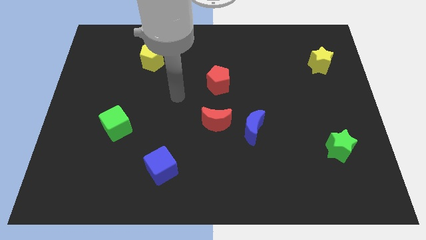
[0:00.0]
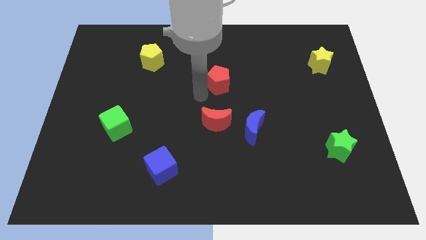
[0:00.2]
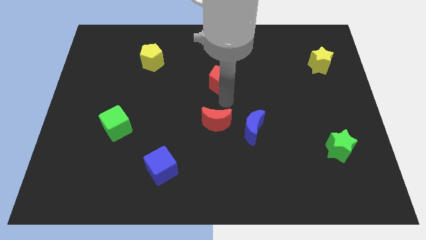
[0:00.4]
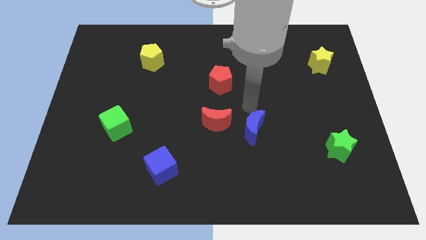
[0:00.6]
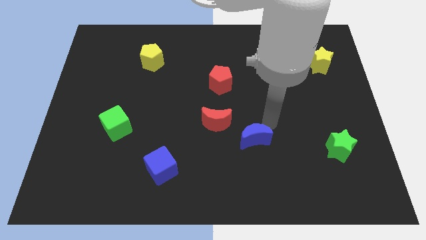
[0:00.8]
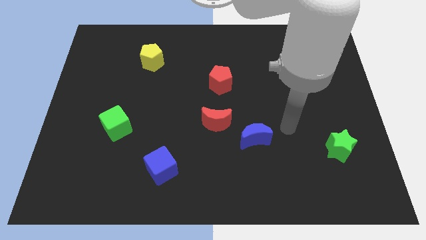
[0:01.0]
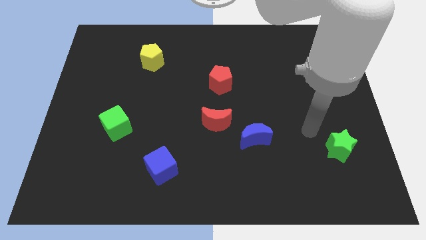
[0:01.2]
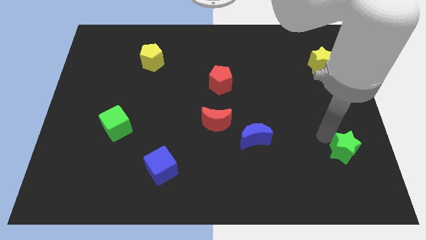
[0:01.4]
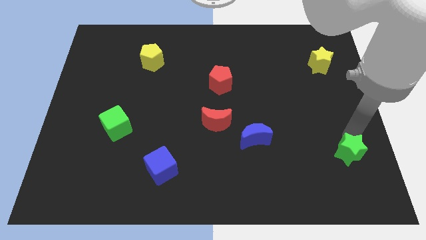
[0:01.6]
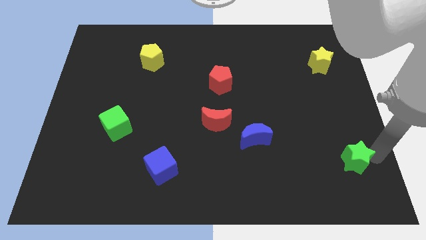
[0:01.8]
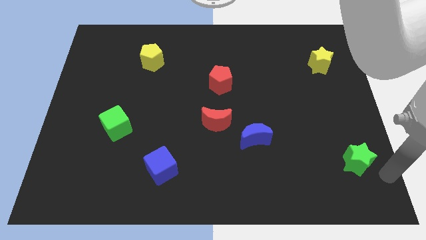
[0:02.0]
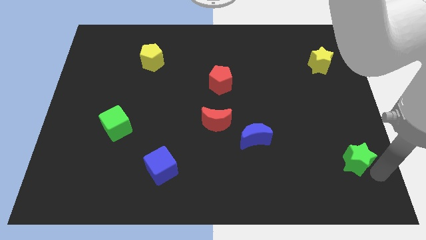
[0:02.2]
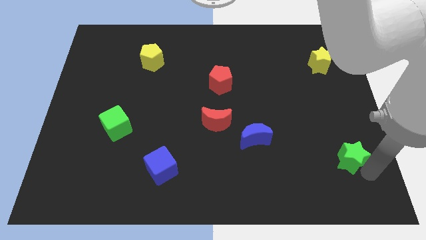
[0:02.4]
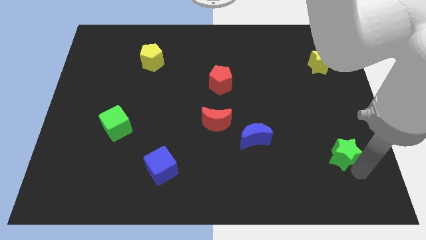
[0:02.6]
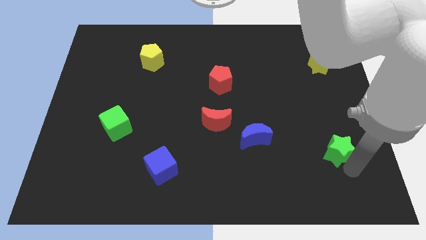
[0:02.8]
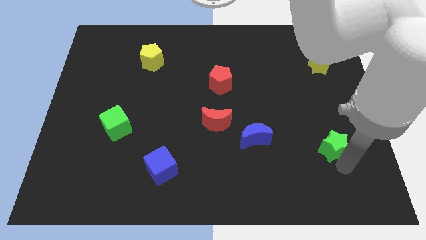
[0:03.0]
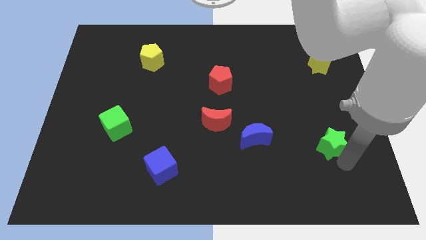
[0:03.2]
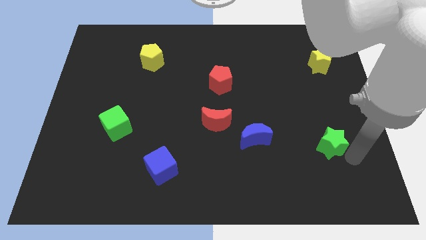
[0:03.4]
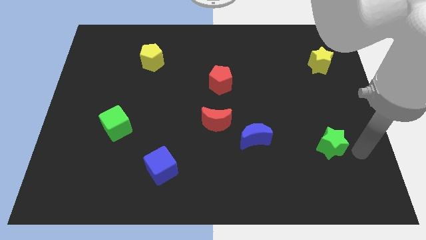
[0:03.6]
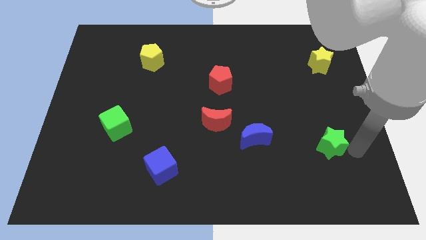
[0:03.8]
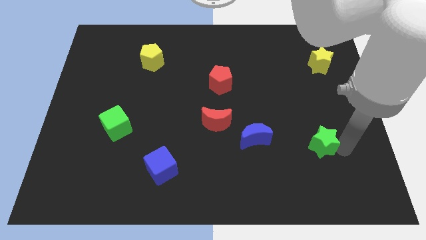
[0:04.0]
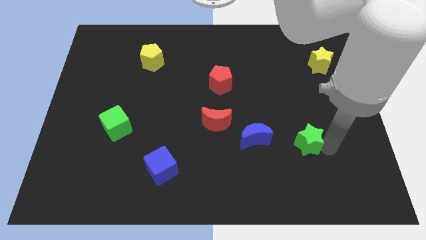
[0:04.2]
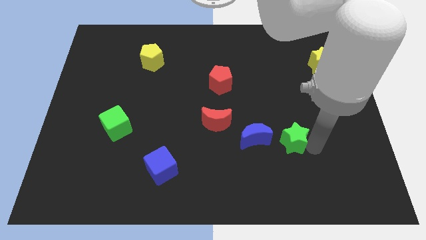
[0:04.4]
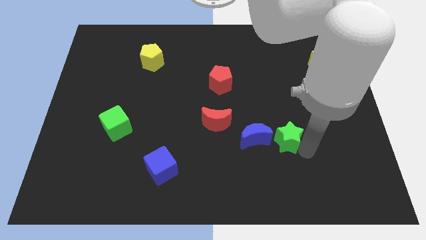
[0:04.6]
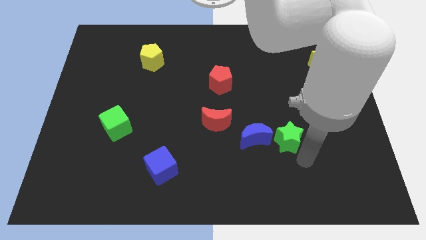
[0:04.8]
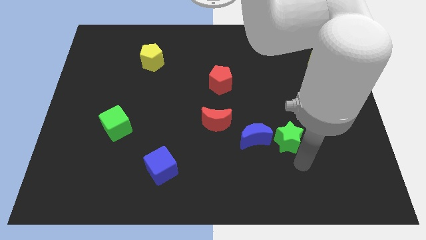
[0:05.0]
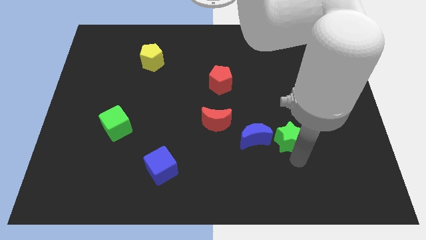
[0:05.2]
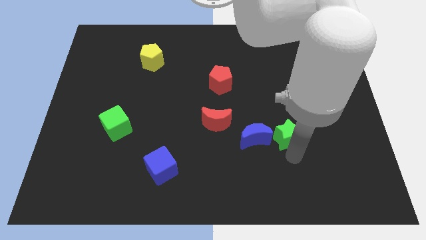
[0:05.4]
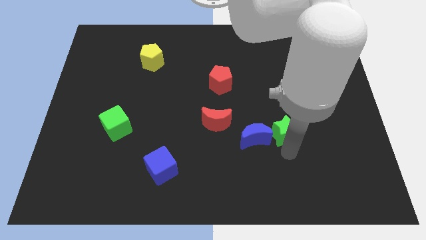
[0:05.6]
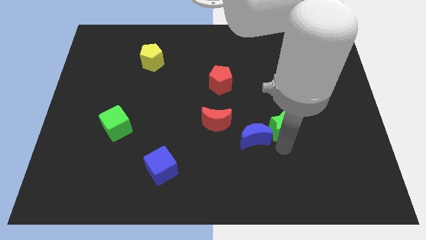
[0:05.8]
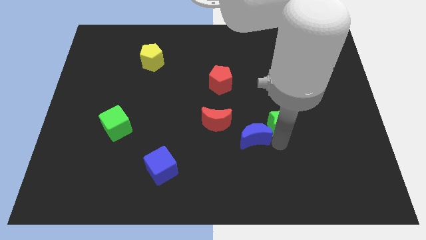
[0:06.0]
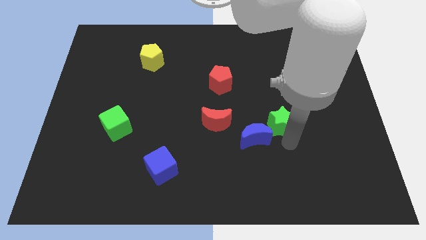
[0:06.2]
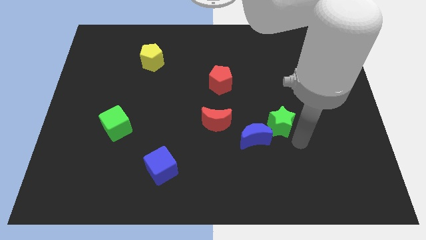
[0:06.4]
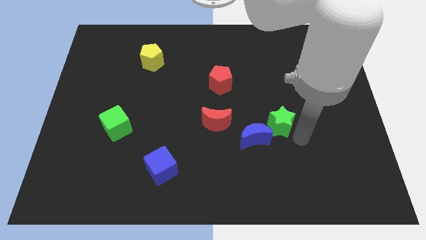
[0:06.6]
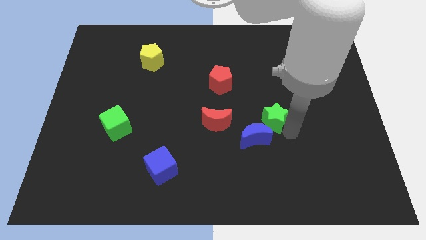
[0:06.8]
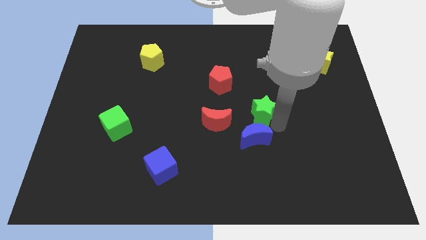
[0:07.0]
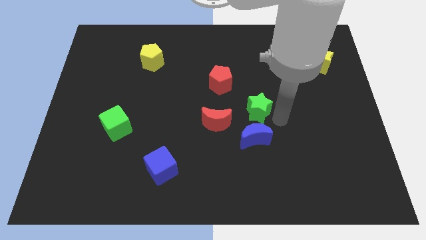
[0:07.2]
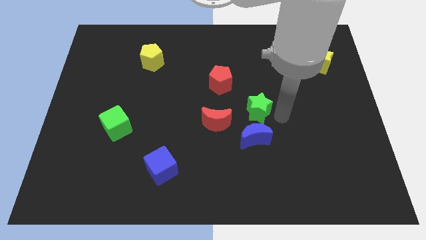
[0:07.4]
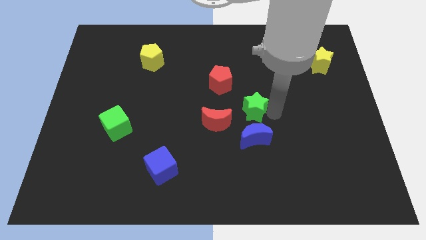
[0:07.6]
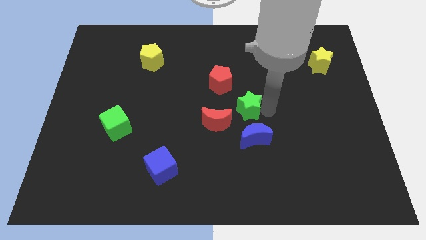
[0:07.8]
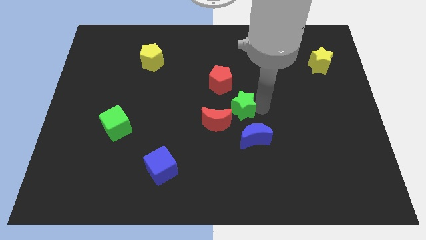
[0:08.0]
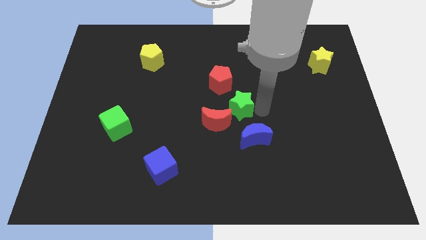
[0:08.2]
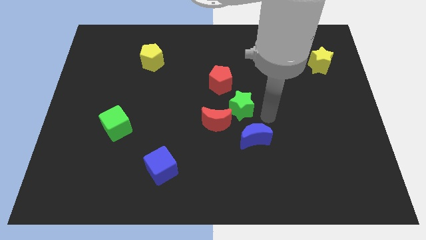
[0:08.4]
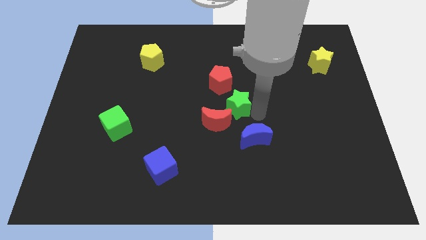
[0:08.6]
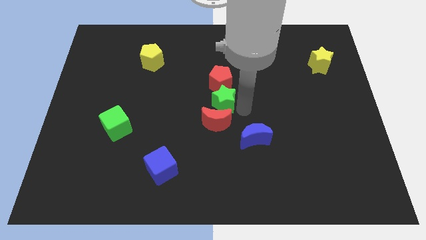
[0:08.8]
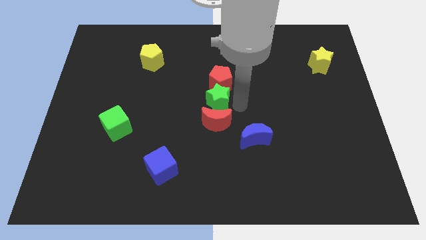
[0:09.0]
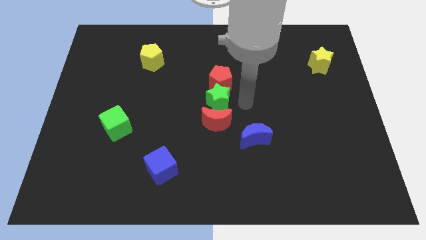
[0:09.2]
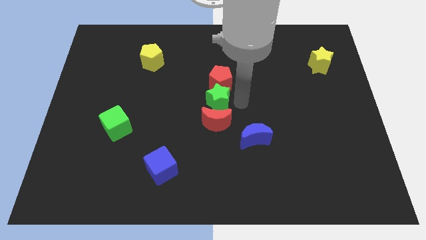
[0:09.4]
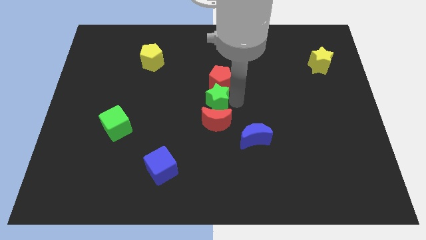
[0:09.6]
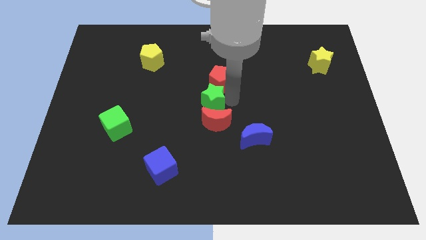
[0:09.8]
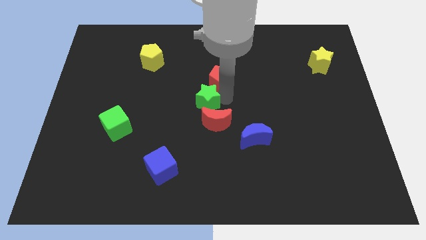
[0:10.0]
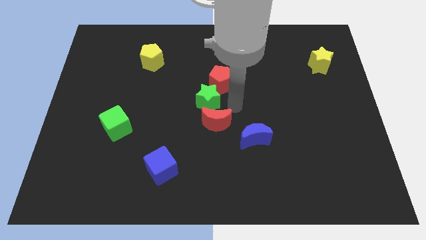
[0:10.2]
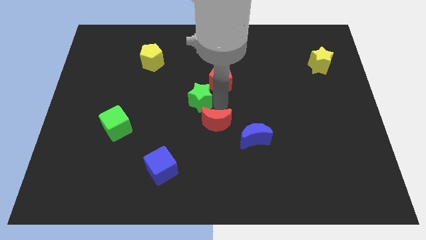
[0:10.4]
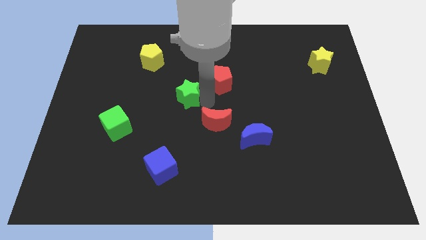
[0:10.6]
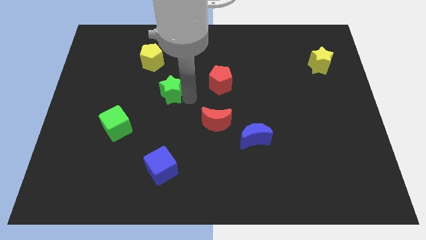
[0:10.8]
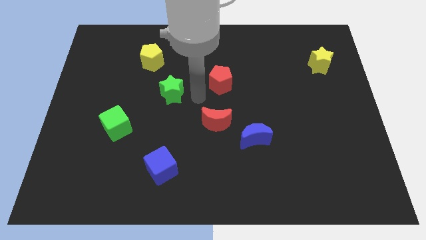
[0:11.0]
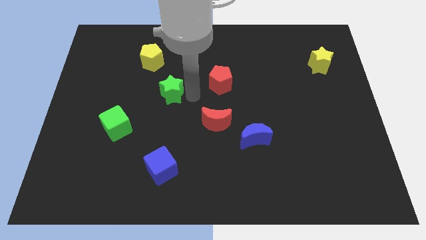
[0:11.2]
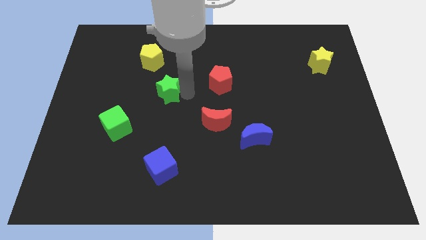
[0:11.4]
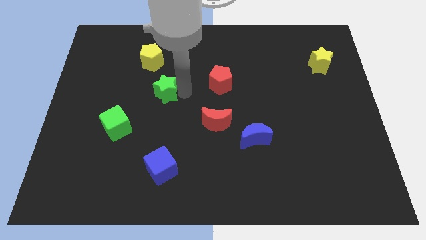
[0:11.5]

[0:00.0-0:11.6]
slide the green star below the yellow pentagon
